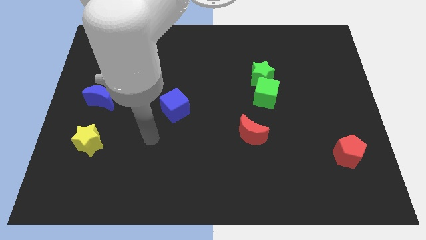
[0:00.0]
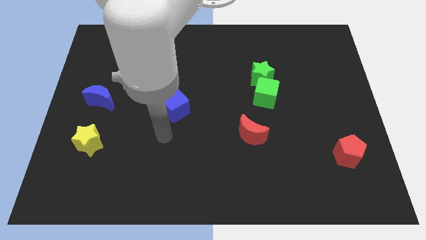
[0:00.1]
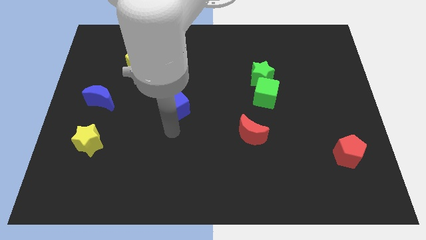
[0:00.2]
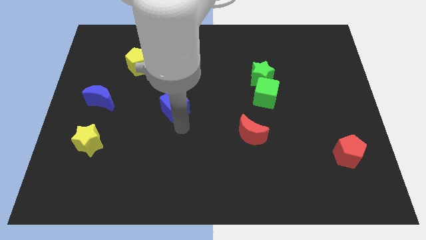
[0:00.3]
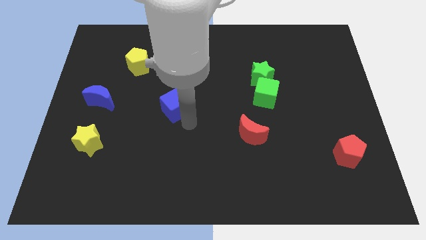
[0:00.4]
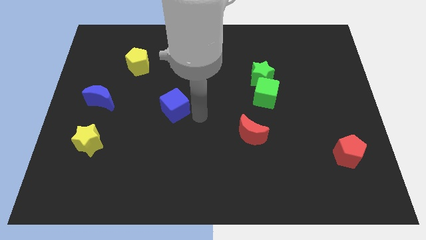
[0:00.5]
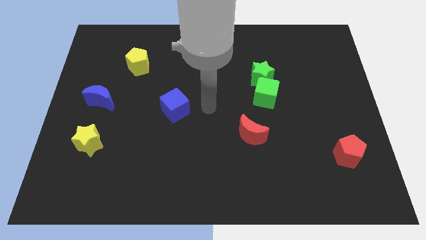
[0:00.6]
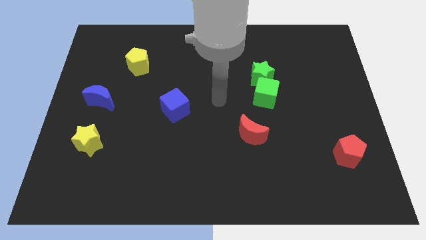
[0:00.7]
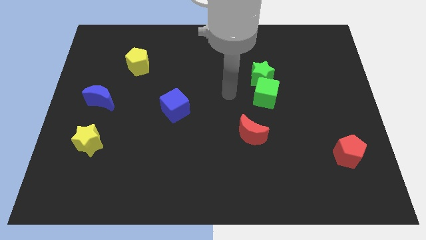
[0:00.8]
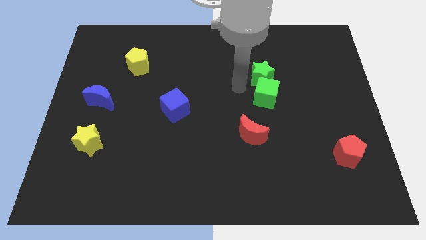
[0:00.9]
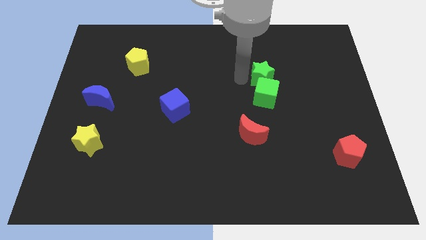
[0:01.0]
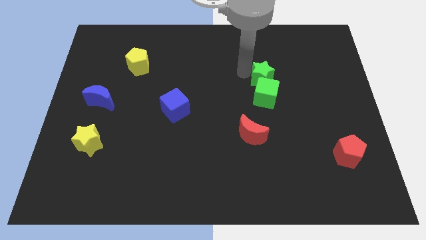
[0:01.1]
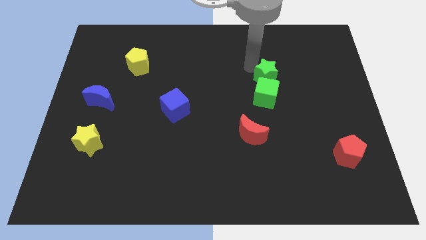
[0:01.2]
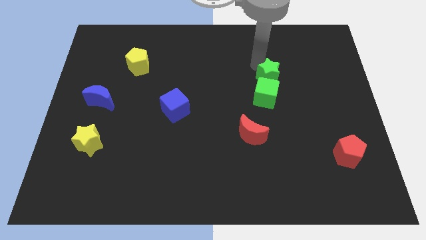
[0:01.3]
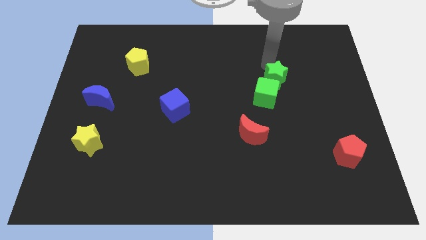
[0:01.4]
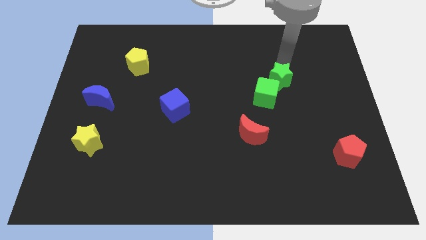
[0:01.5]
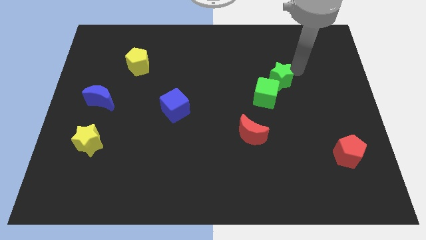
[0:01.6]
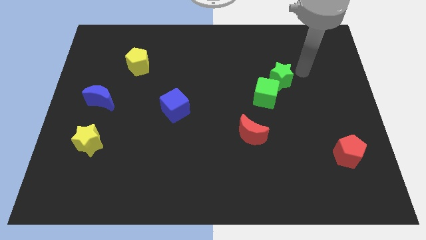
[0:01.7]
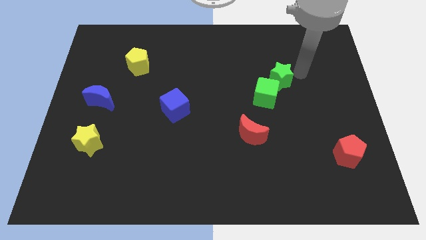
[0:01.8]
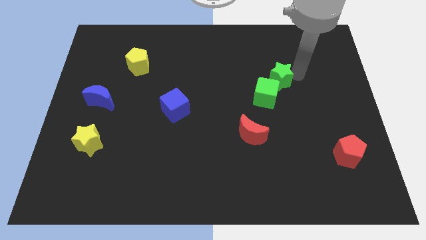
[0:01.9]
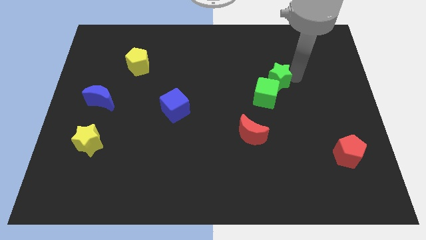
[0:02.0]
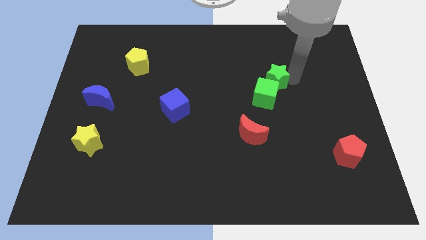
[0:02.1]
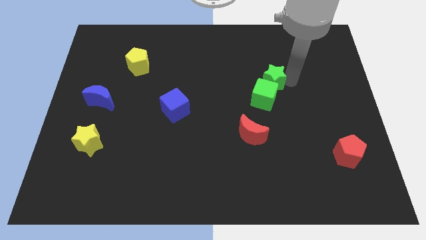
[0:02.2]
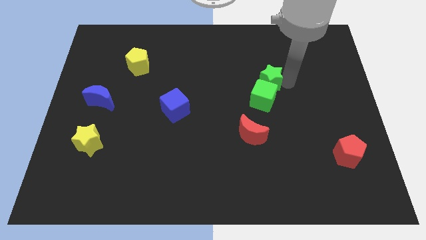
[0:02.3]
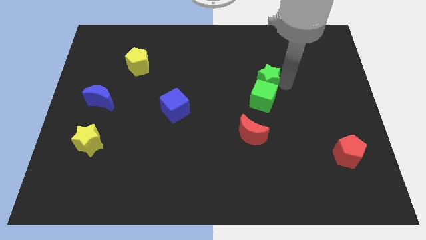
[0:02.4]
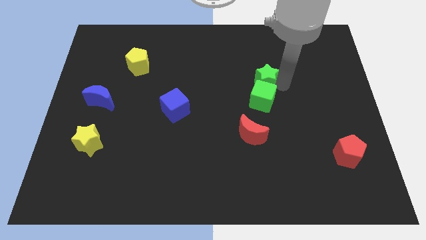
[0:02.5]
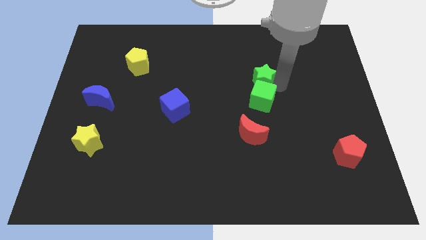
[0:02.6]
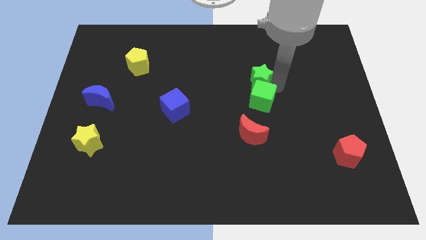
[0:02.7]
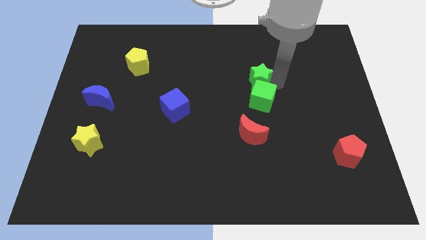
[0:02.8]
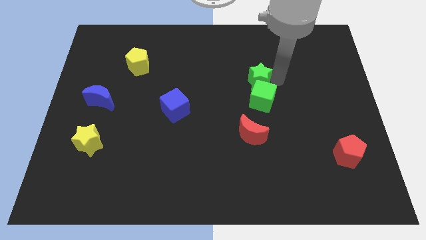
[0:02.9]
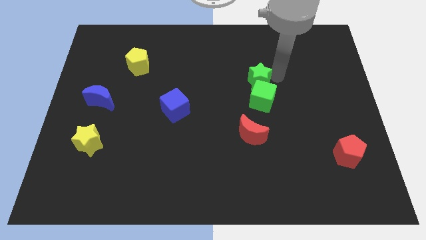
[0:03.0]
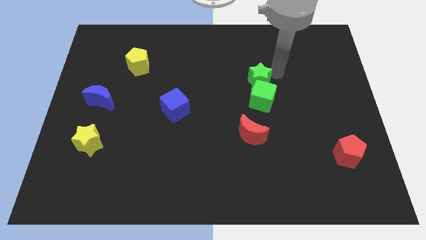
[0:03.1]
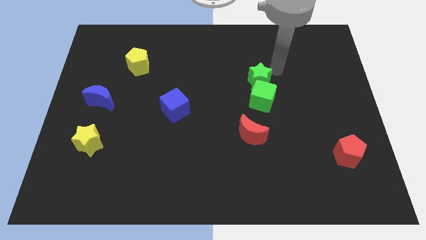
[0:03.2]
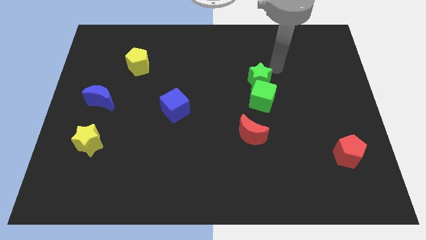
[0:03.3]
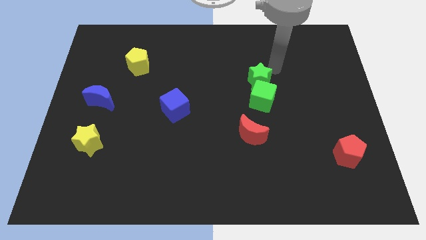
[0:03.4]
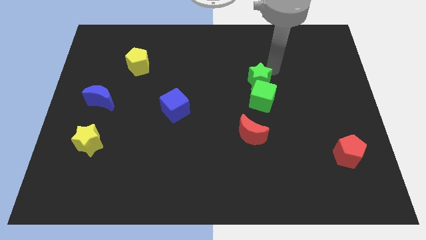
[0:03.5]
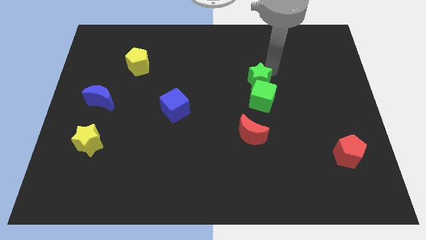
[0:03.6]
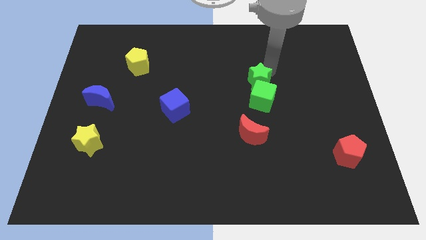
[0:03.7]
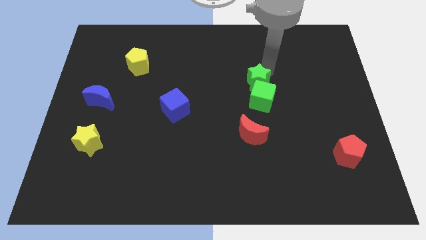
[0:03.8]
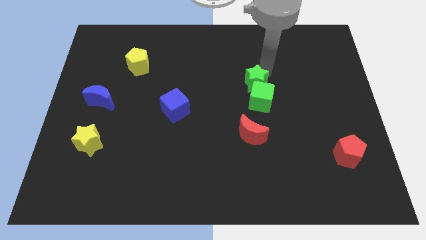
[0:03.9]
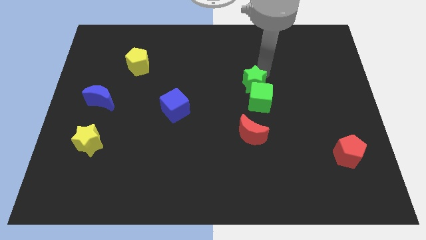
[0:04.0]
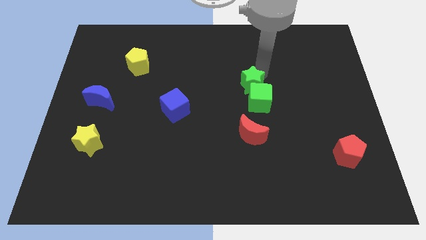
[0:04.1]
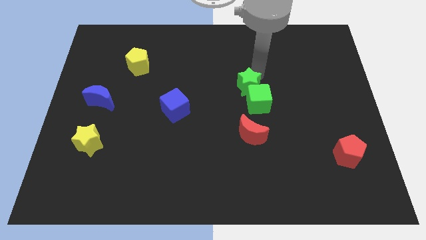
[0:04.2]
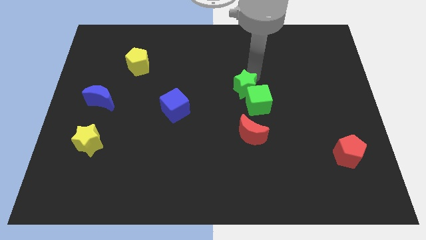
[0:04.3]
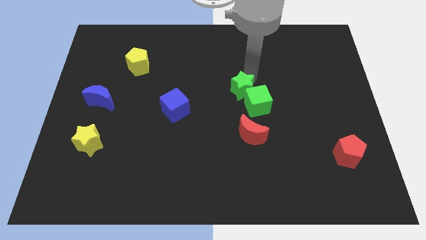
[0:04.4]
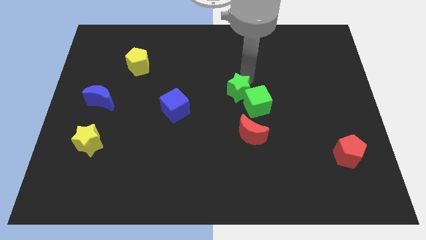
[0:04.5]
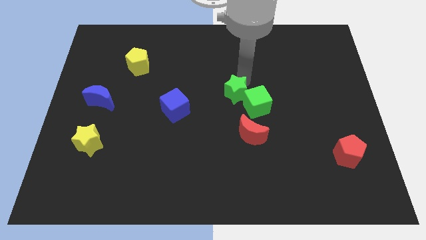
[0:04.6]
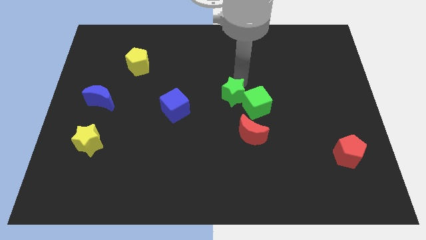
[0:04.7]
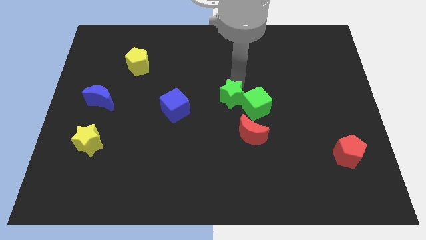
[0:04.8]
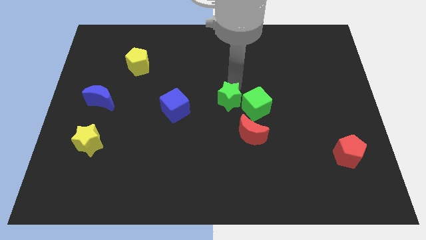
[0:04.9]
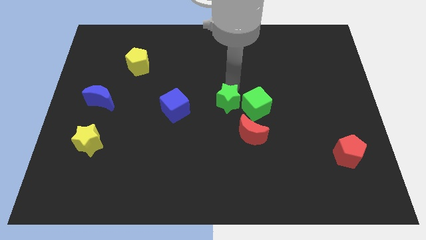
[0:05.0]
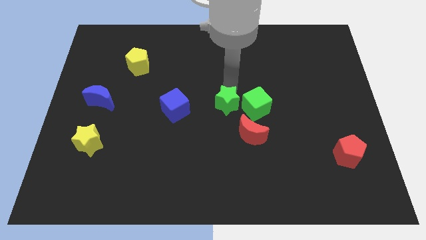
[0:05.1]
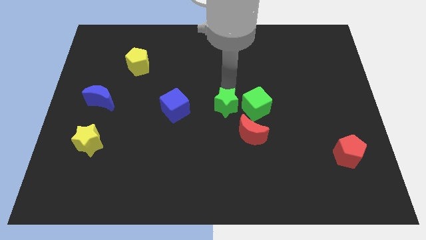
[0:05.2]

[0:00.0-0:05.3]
push the green star to the bottom left of the green cube

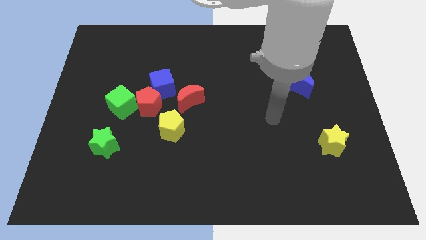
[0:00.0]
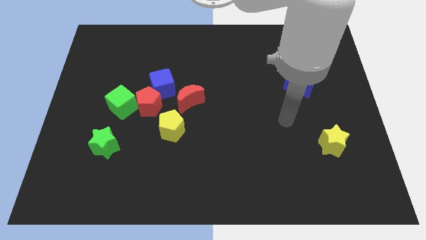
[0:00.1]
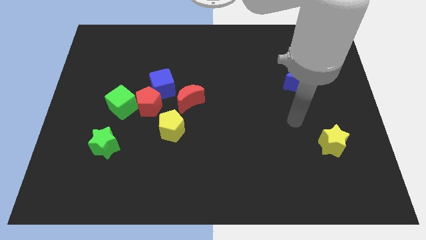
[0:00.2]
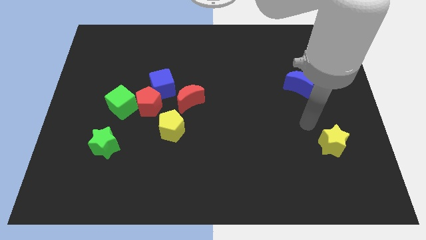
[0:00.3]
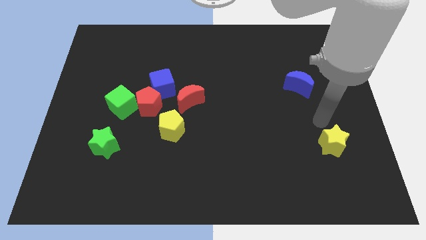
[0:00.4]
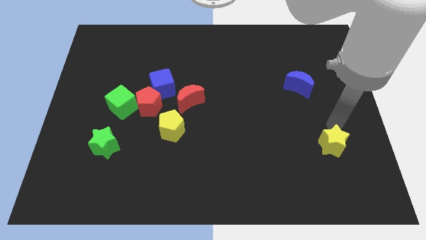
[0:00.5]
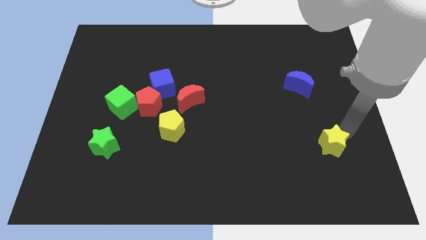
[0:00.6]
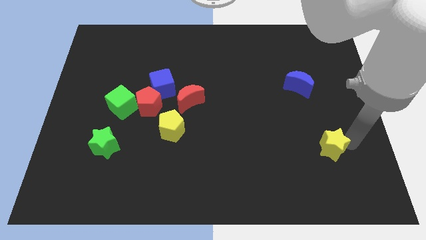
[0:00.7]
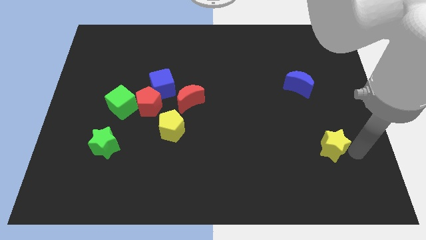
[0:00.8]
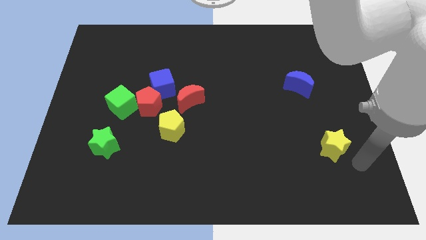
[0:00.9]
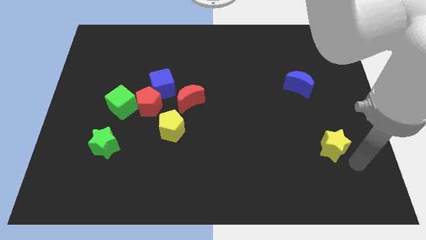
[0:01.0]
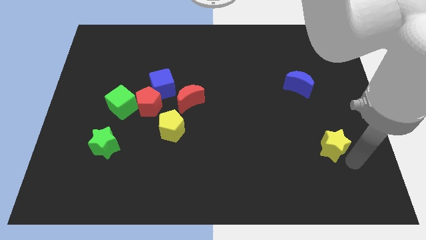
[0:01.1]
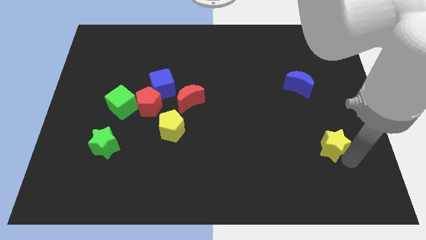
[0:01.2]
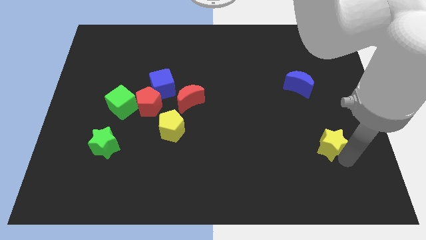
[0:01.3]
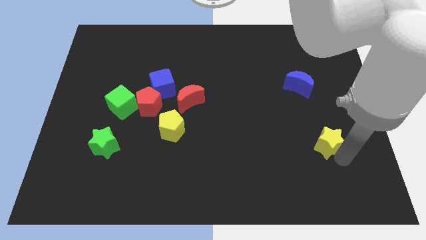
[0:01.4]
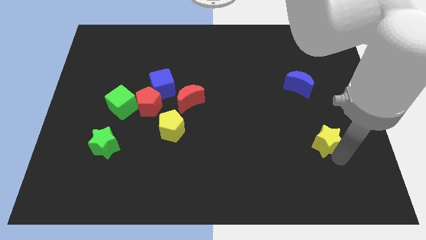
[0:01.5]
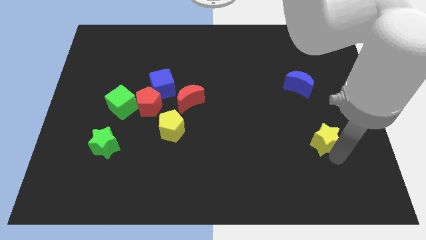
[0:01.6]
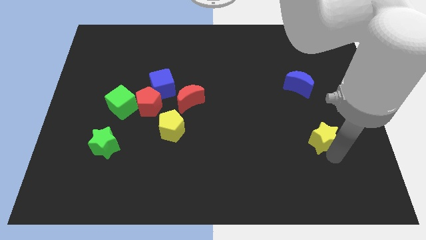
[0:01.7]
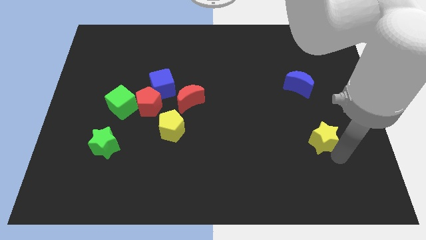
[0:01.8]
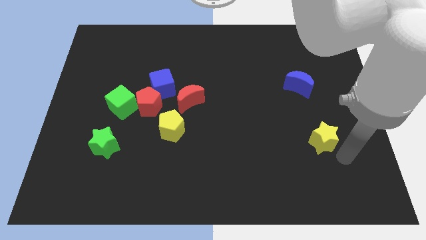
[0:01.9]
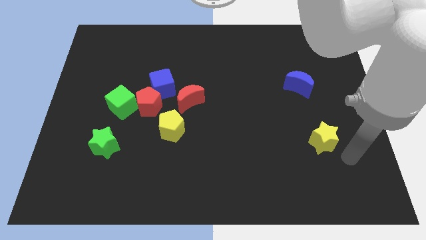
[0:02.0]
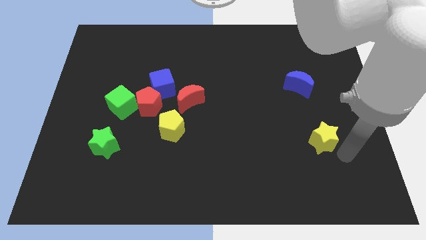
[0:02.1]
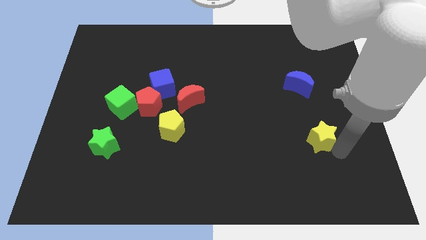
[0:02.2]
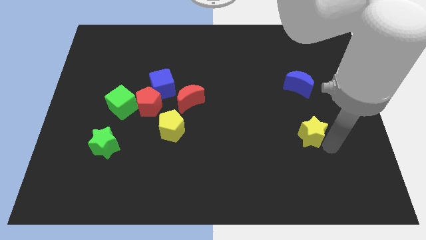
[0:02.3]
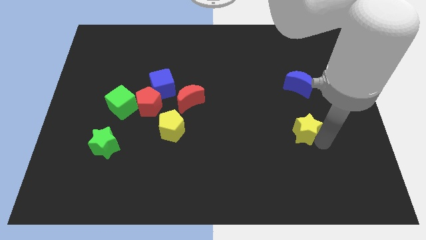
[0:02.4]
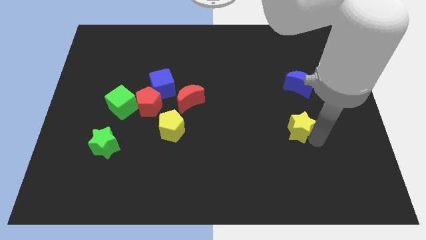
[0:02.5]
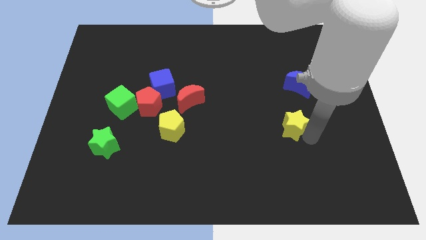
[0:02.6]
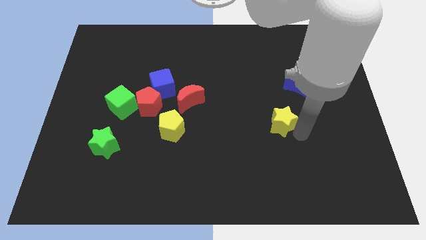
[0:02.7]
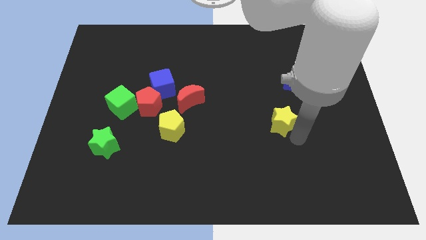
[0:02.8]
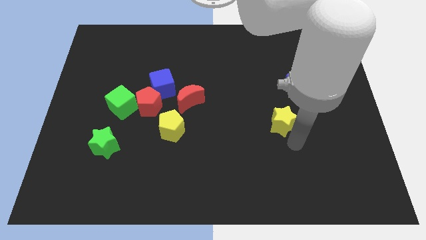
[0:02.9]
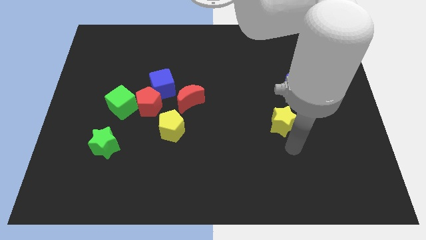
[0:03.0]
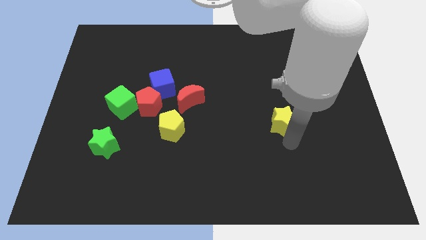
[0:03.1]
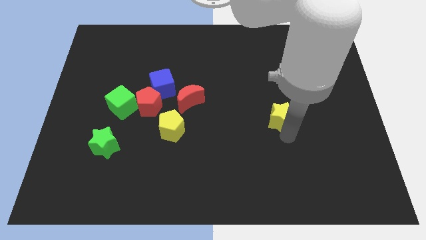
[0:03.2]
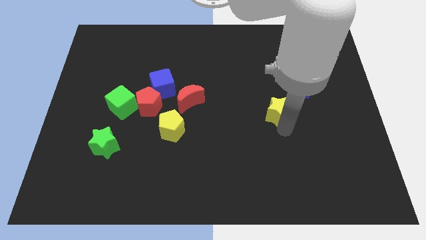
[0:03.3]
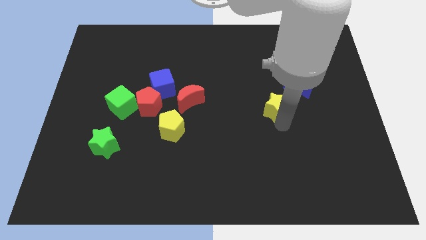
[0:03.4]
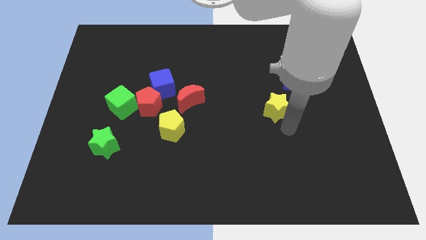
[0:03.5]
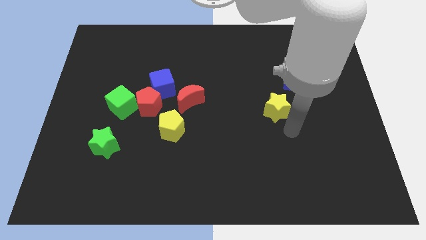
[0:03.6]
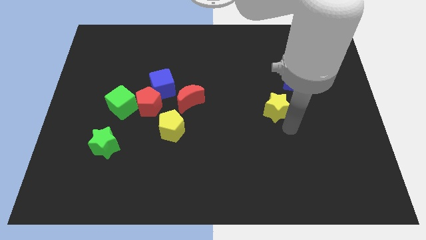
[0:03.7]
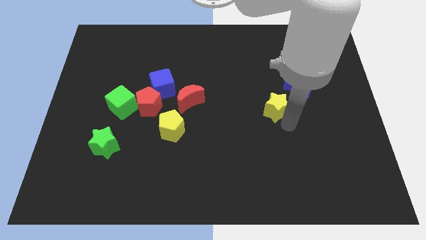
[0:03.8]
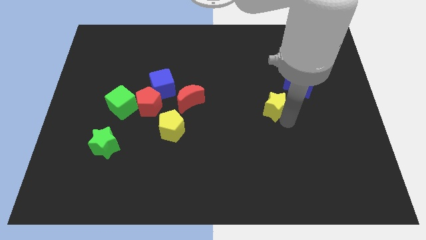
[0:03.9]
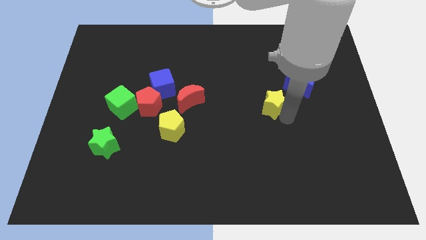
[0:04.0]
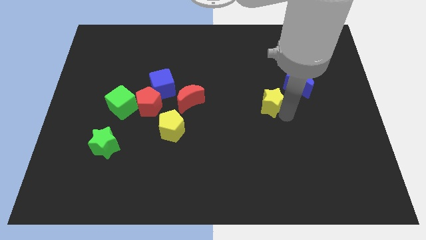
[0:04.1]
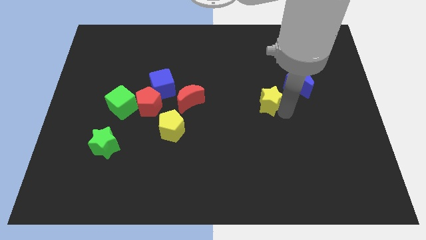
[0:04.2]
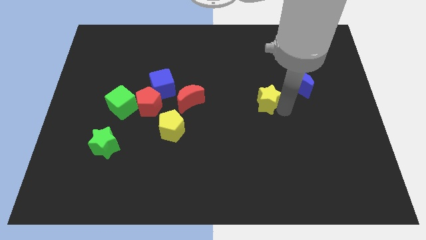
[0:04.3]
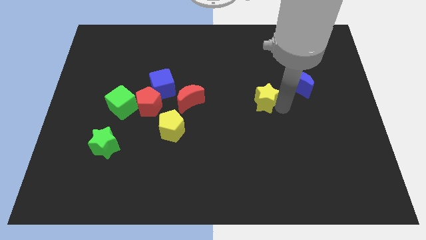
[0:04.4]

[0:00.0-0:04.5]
push the yellow star to the left of the blue moon
